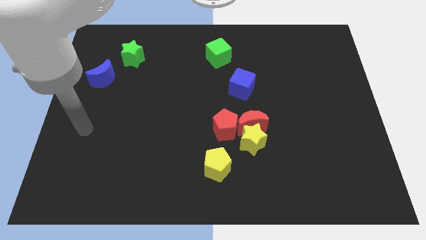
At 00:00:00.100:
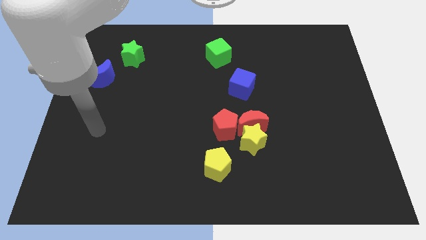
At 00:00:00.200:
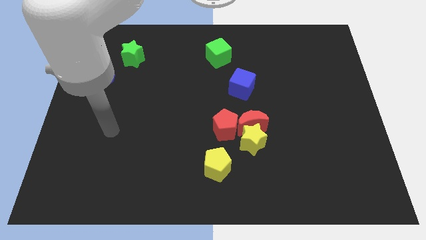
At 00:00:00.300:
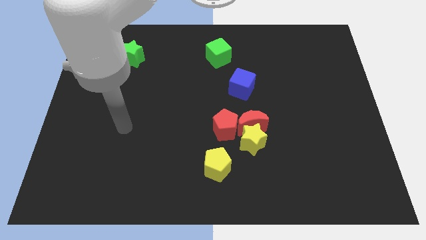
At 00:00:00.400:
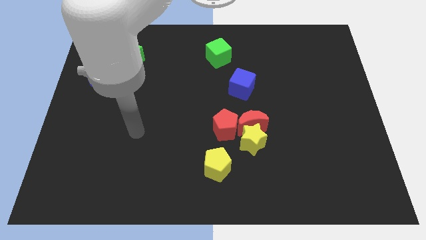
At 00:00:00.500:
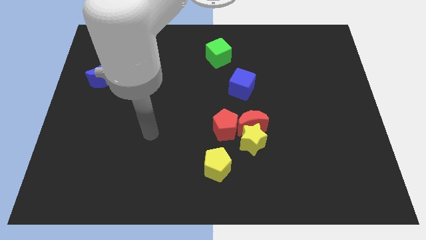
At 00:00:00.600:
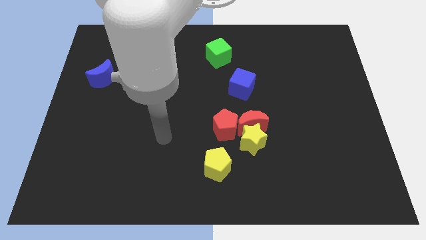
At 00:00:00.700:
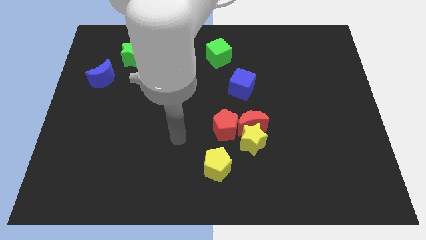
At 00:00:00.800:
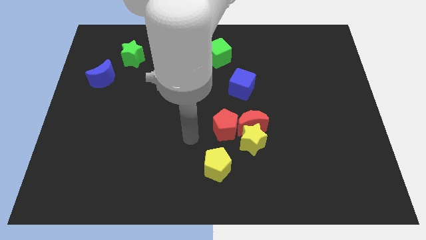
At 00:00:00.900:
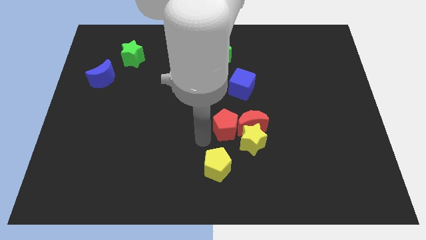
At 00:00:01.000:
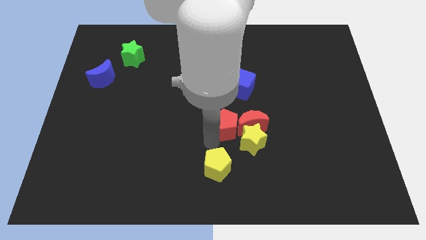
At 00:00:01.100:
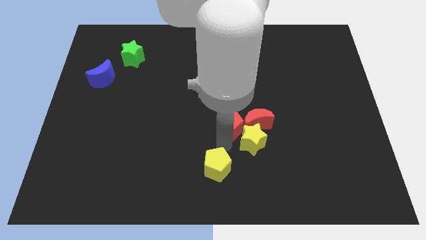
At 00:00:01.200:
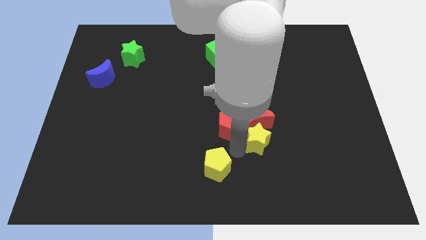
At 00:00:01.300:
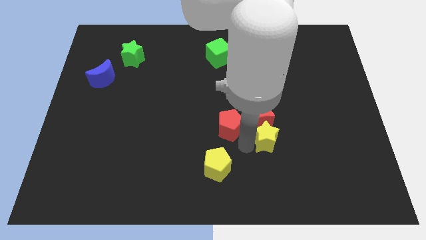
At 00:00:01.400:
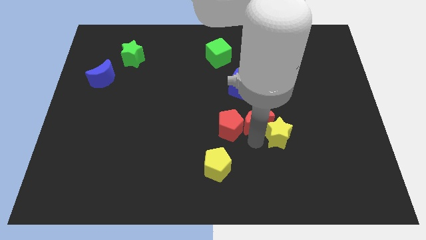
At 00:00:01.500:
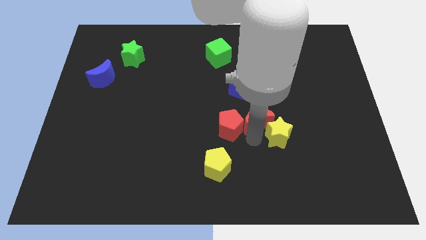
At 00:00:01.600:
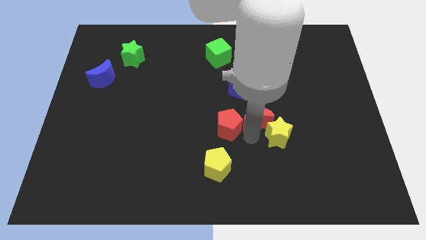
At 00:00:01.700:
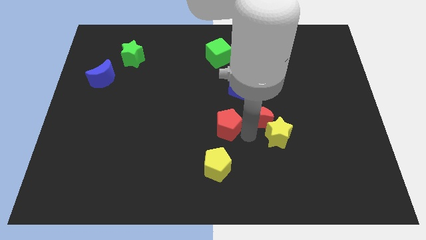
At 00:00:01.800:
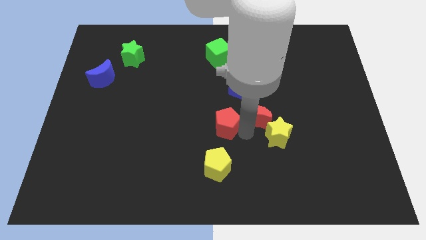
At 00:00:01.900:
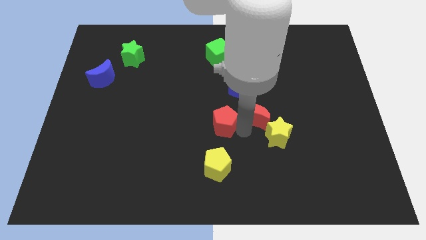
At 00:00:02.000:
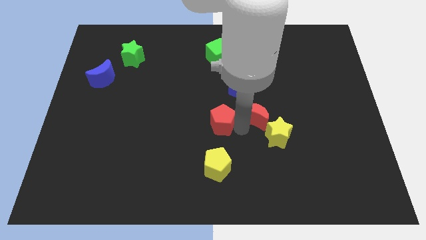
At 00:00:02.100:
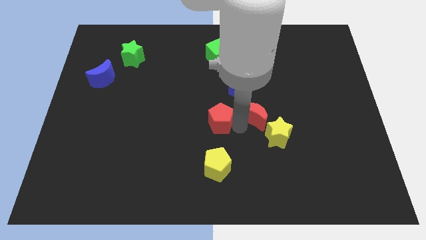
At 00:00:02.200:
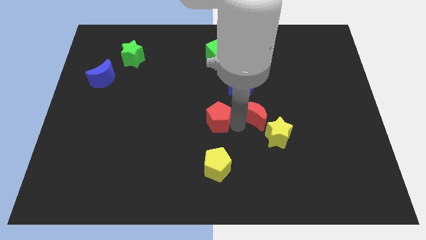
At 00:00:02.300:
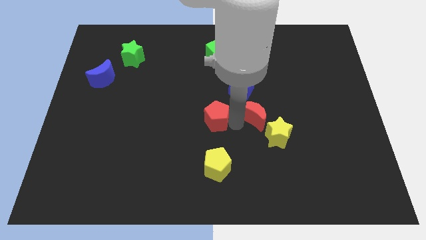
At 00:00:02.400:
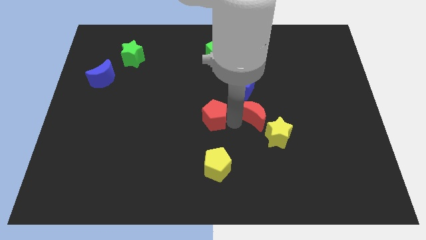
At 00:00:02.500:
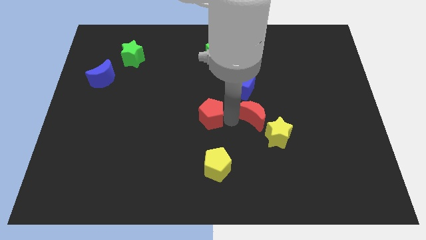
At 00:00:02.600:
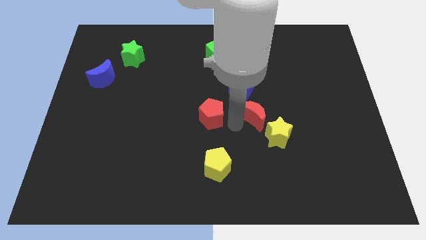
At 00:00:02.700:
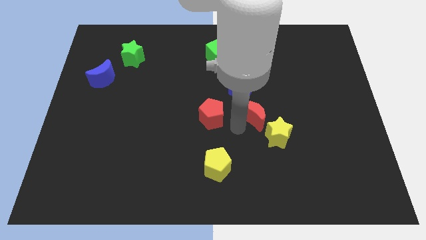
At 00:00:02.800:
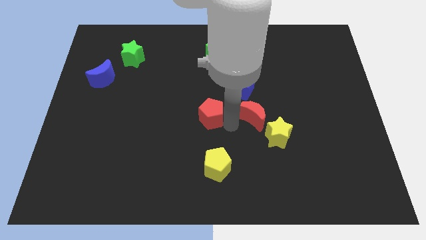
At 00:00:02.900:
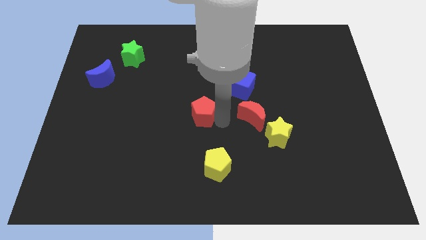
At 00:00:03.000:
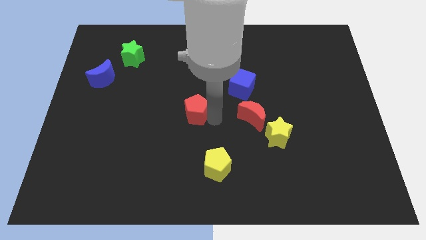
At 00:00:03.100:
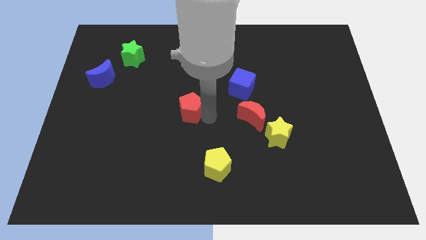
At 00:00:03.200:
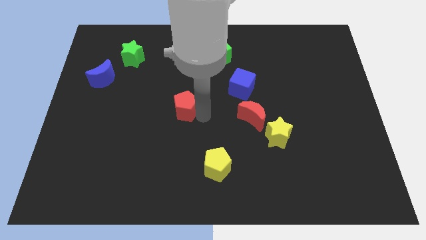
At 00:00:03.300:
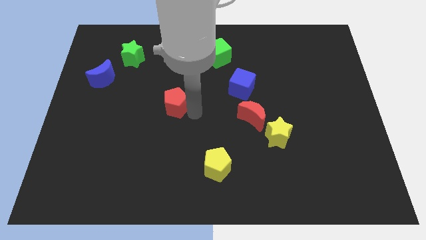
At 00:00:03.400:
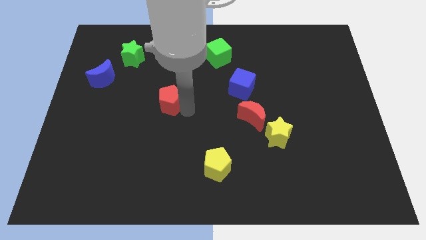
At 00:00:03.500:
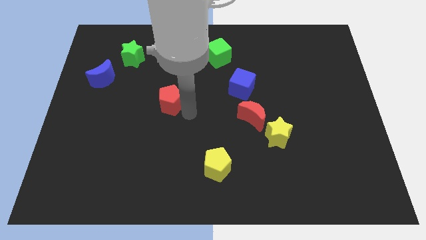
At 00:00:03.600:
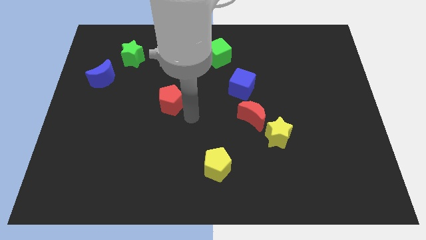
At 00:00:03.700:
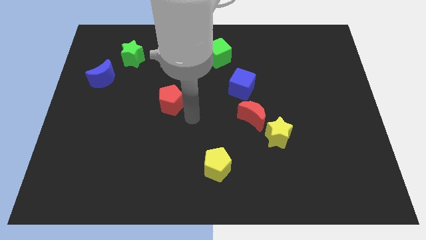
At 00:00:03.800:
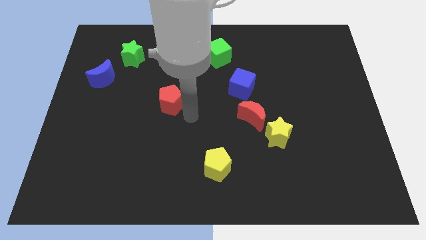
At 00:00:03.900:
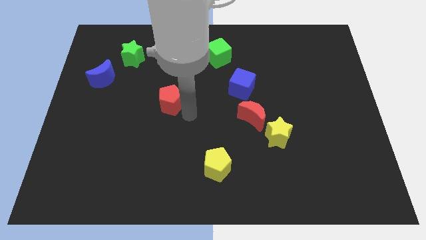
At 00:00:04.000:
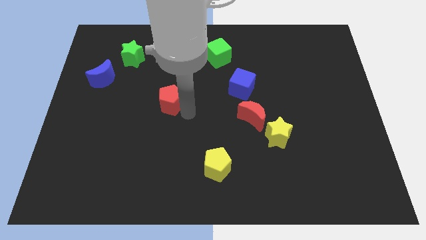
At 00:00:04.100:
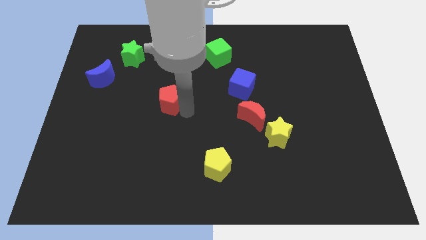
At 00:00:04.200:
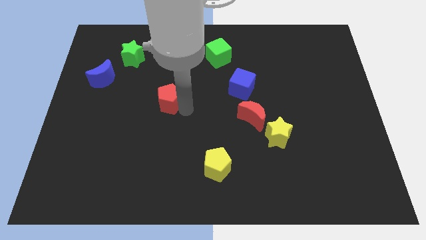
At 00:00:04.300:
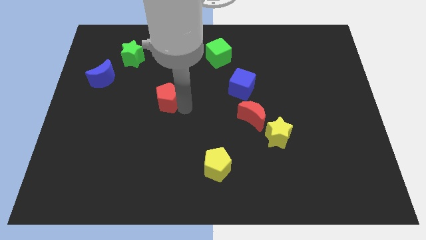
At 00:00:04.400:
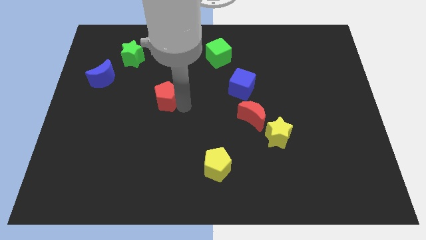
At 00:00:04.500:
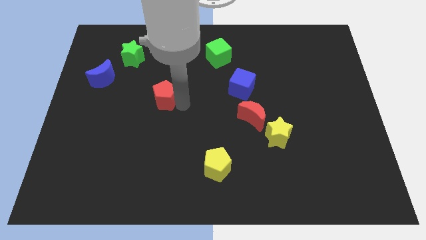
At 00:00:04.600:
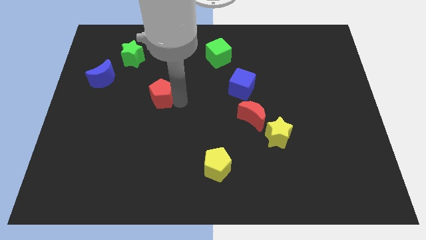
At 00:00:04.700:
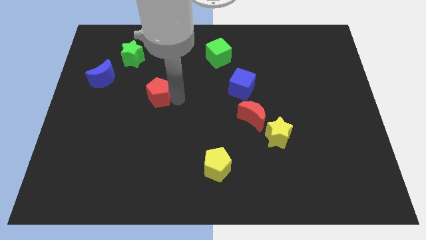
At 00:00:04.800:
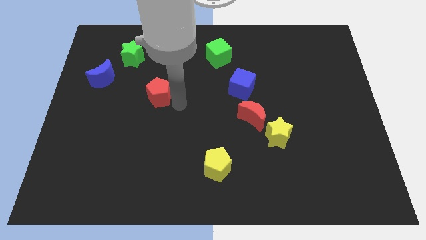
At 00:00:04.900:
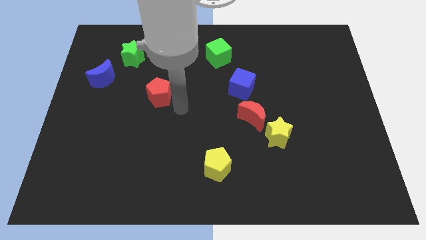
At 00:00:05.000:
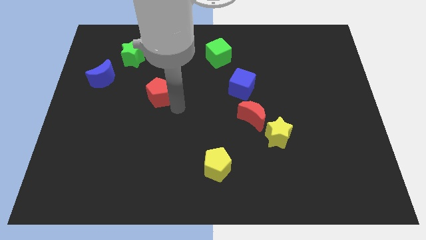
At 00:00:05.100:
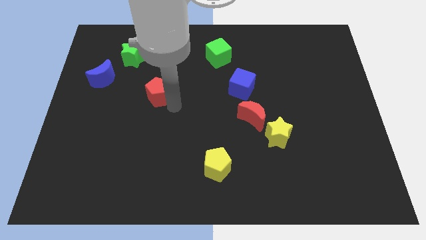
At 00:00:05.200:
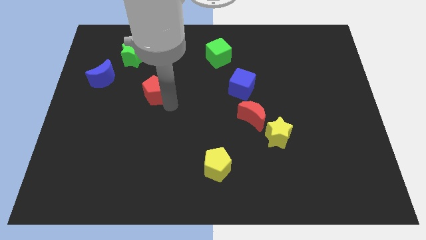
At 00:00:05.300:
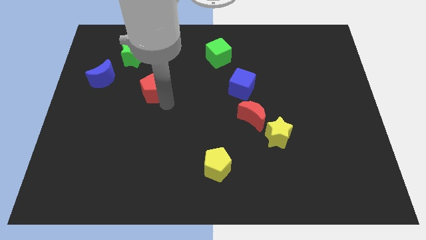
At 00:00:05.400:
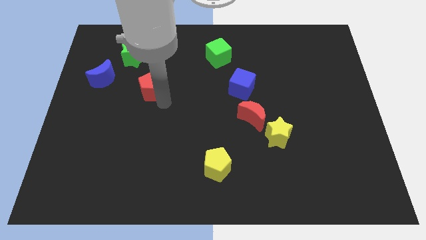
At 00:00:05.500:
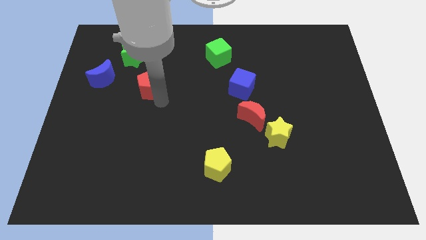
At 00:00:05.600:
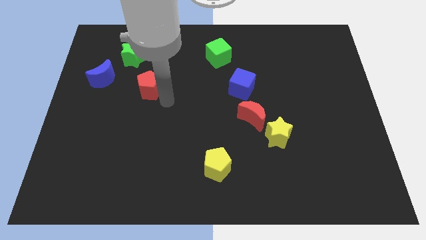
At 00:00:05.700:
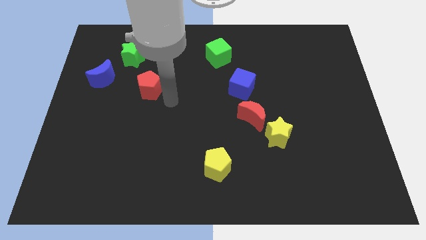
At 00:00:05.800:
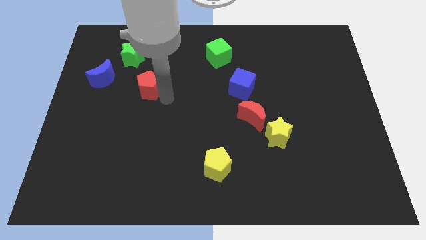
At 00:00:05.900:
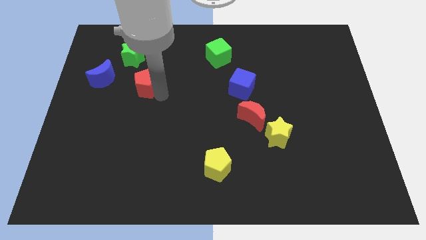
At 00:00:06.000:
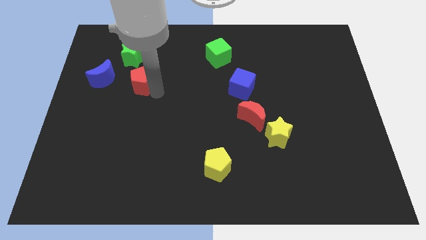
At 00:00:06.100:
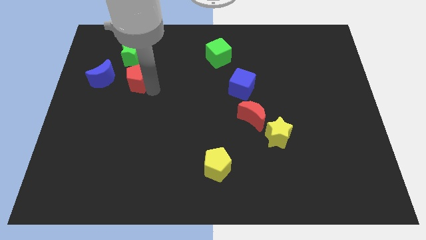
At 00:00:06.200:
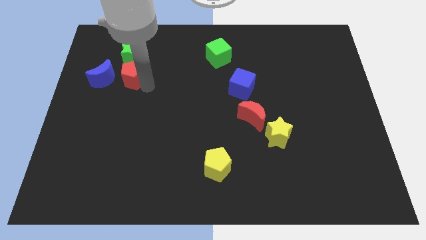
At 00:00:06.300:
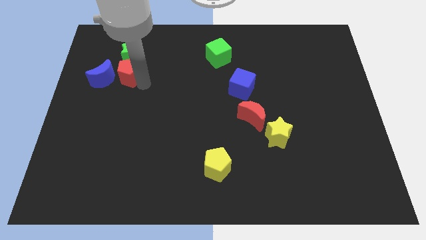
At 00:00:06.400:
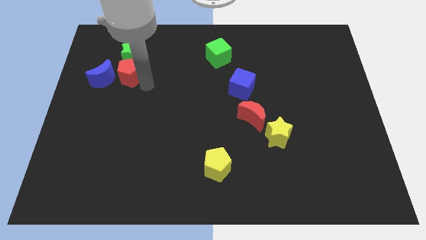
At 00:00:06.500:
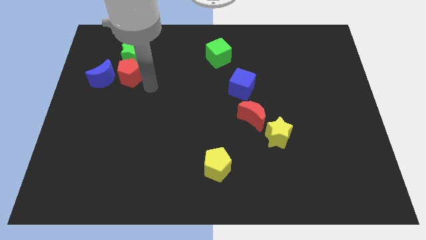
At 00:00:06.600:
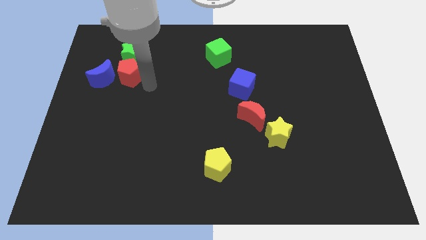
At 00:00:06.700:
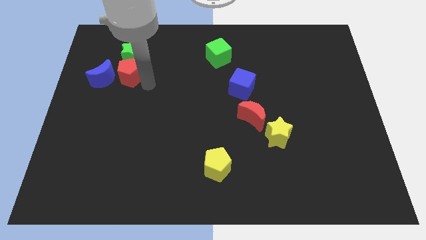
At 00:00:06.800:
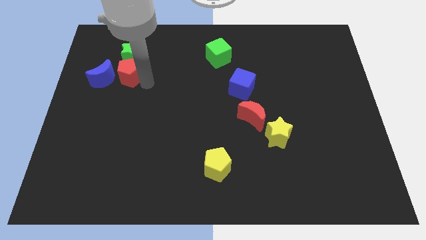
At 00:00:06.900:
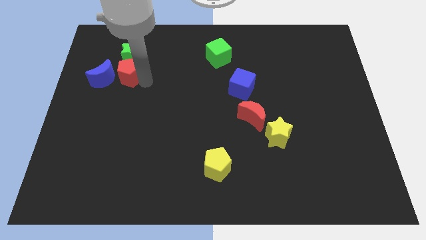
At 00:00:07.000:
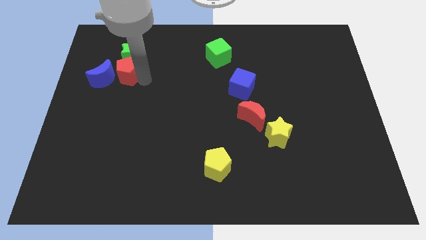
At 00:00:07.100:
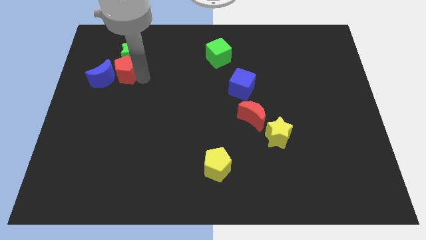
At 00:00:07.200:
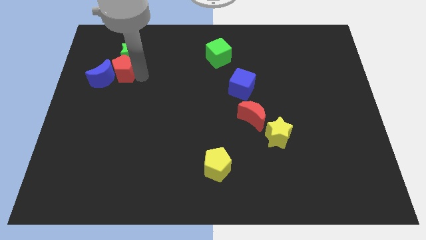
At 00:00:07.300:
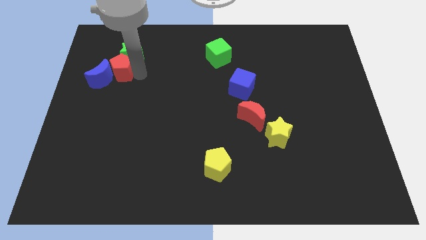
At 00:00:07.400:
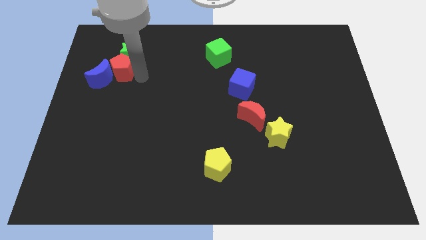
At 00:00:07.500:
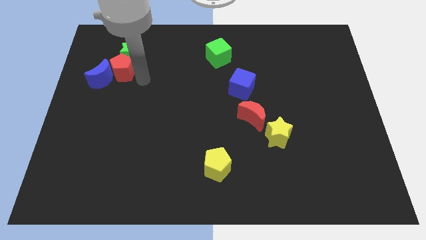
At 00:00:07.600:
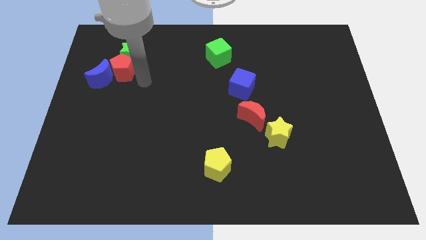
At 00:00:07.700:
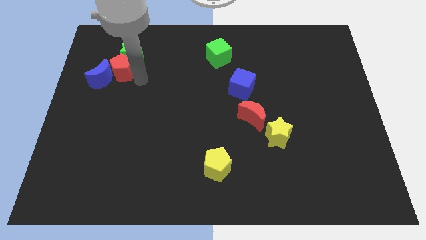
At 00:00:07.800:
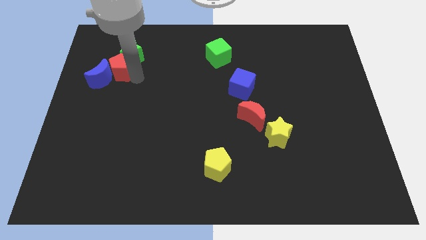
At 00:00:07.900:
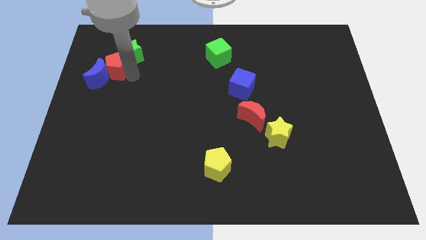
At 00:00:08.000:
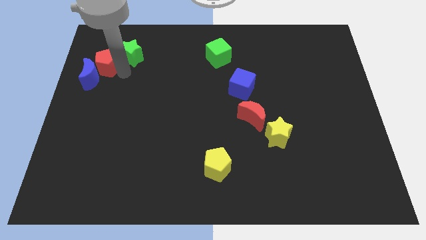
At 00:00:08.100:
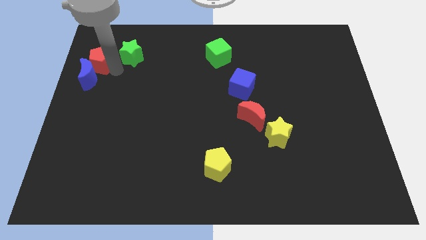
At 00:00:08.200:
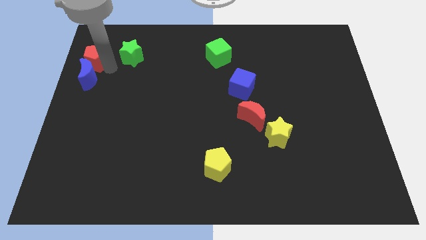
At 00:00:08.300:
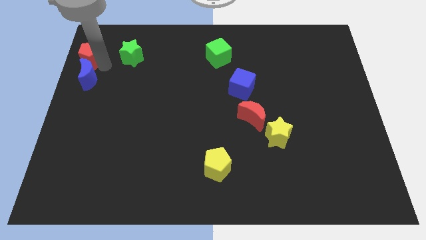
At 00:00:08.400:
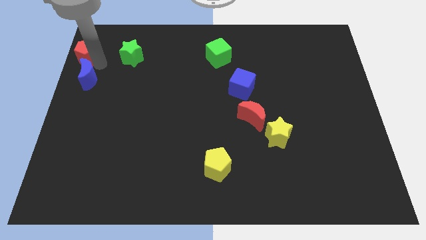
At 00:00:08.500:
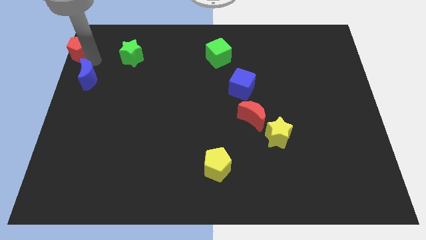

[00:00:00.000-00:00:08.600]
slide the red pentagon to the top left of the board
